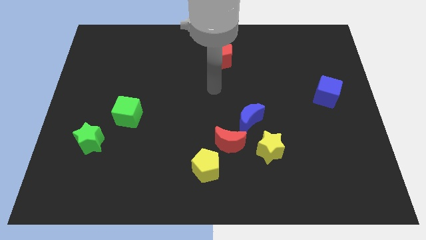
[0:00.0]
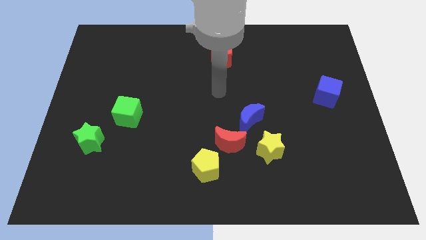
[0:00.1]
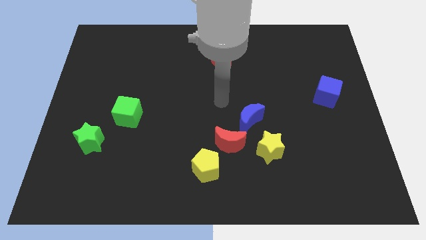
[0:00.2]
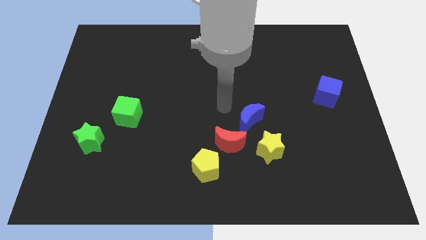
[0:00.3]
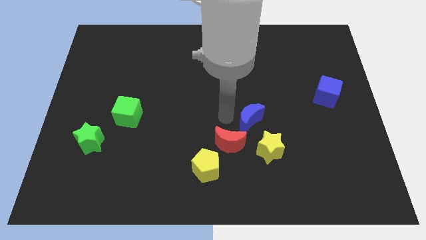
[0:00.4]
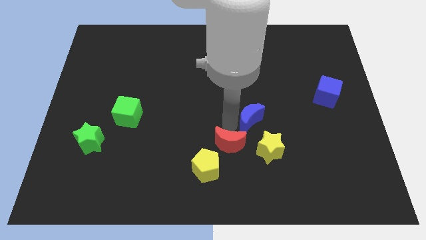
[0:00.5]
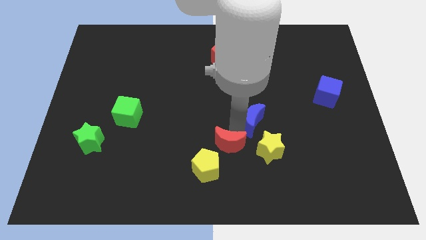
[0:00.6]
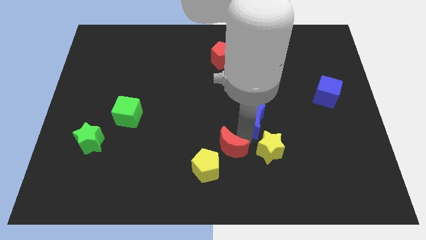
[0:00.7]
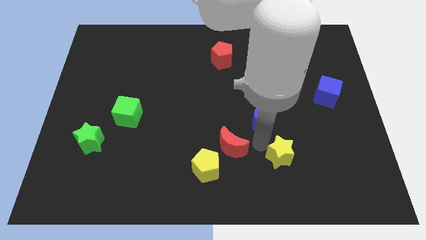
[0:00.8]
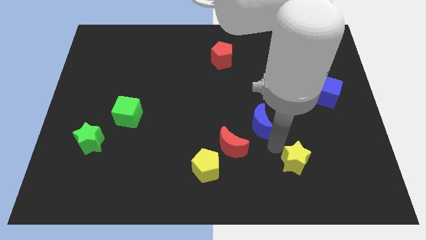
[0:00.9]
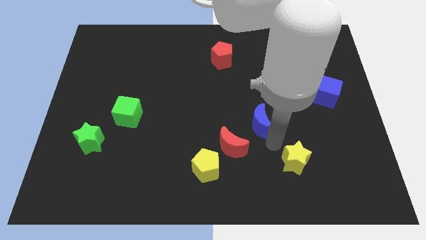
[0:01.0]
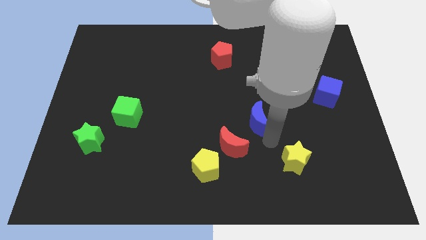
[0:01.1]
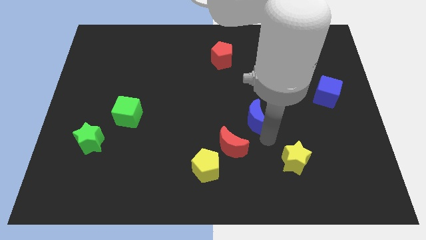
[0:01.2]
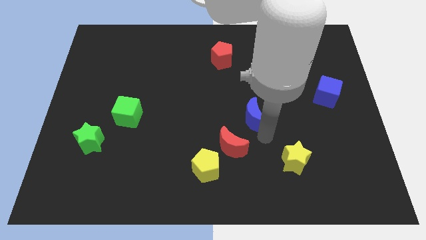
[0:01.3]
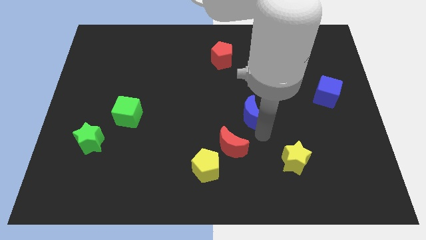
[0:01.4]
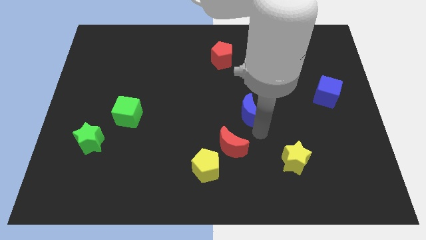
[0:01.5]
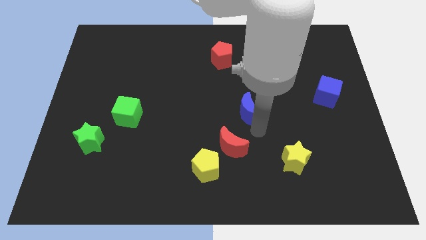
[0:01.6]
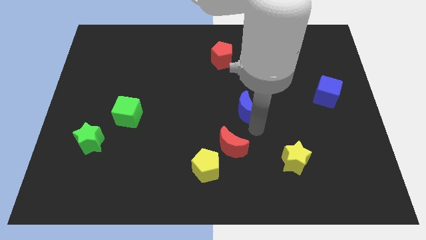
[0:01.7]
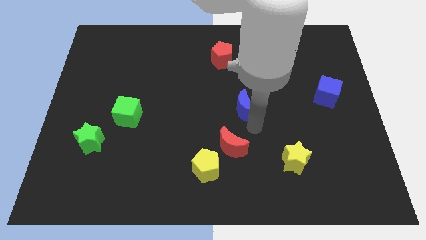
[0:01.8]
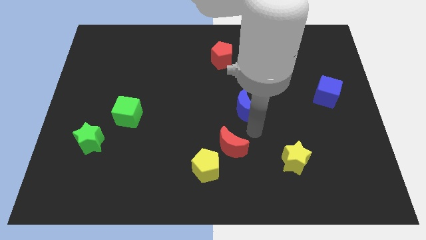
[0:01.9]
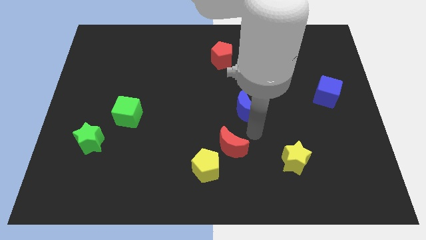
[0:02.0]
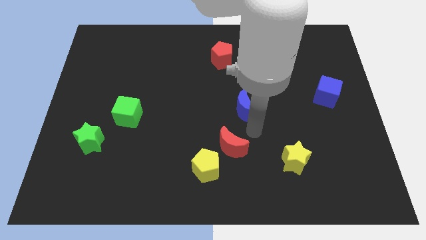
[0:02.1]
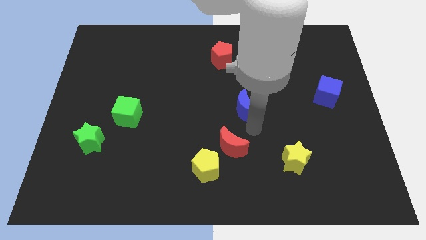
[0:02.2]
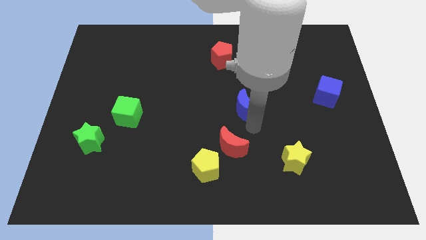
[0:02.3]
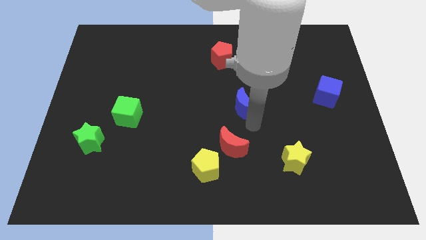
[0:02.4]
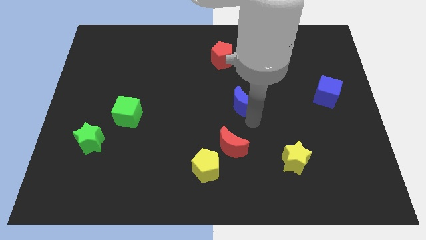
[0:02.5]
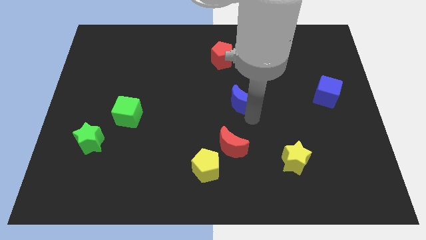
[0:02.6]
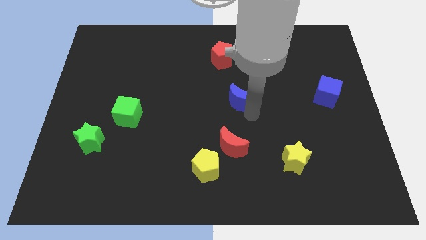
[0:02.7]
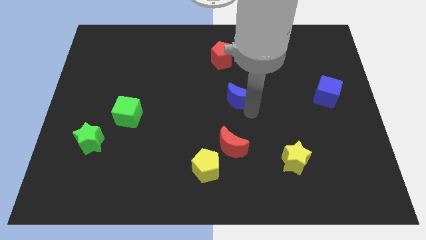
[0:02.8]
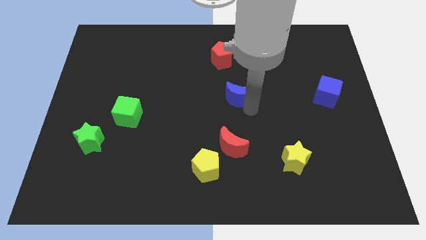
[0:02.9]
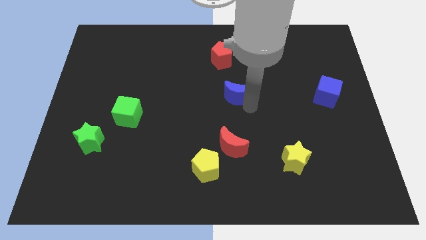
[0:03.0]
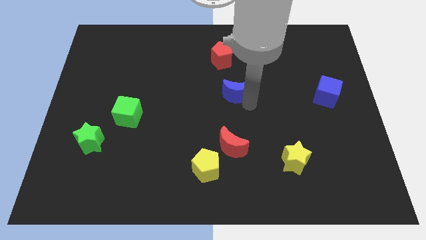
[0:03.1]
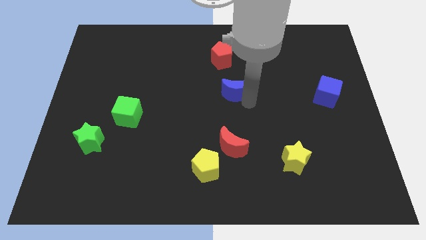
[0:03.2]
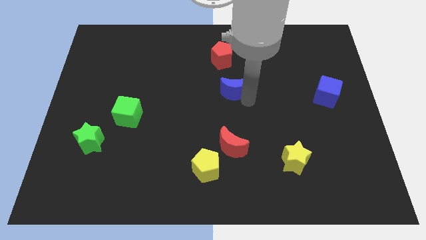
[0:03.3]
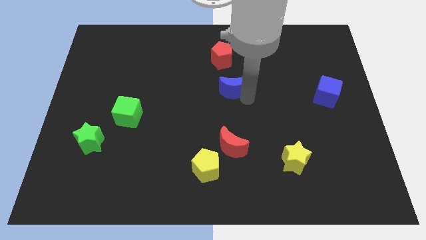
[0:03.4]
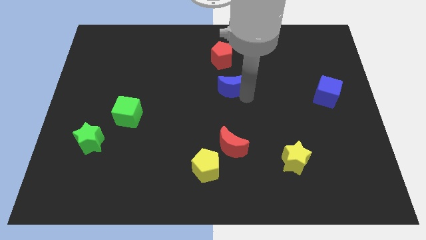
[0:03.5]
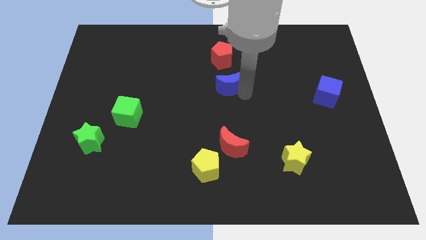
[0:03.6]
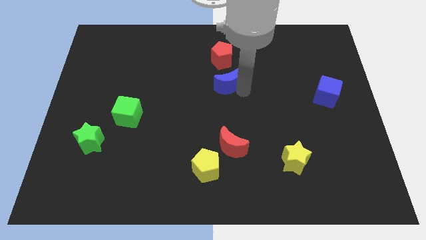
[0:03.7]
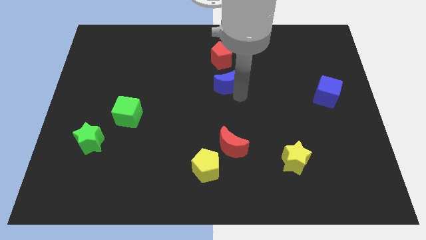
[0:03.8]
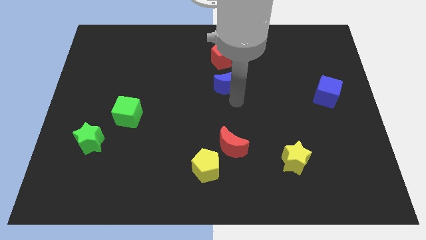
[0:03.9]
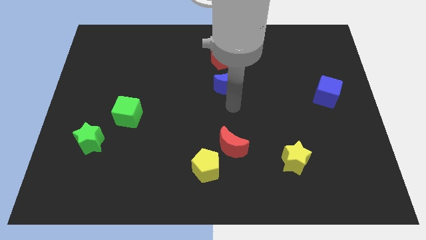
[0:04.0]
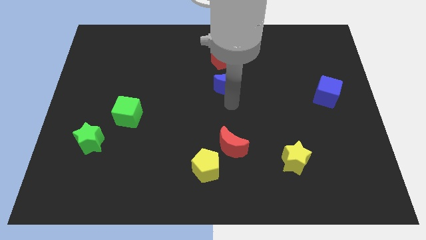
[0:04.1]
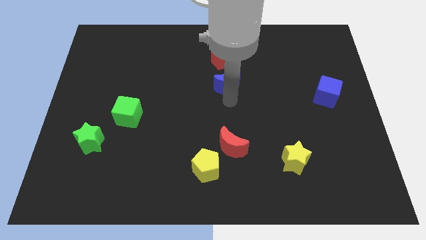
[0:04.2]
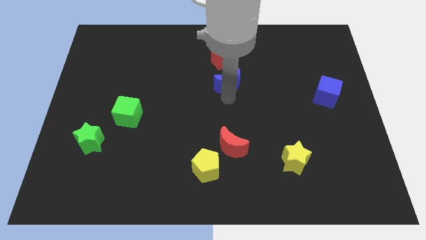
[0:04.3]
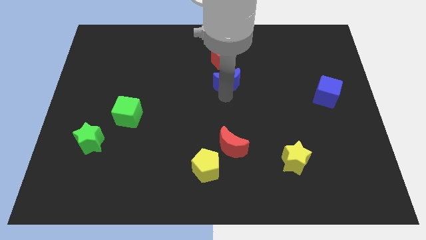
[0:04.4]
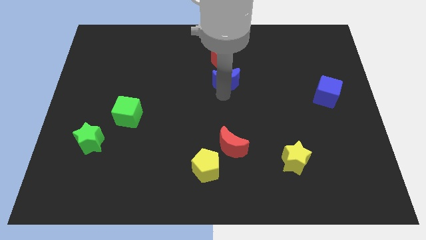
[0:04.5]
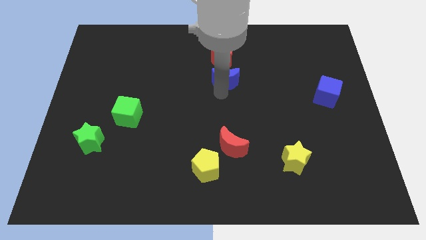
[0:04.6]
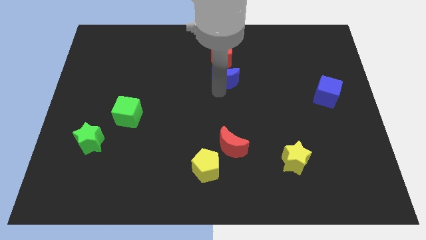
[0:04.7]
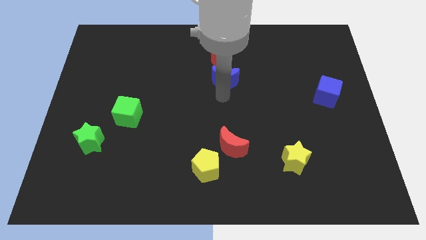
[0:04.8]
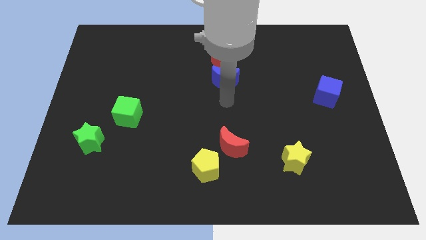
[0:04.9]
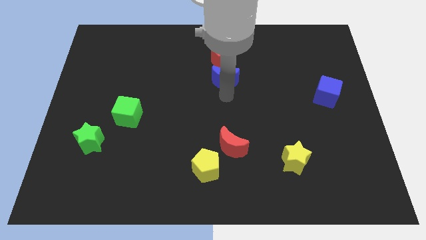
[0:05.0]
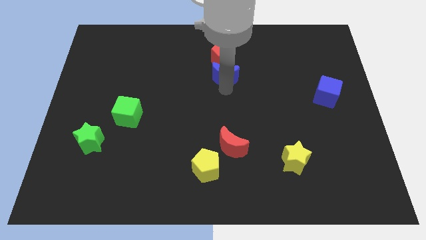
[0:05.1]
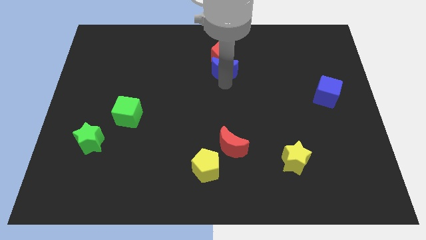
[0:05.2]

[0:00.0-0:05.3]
slide the blue moon close to the red pentagon

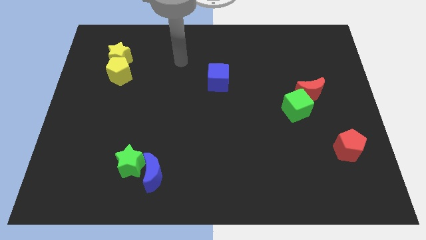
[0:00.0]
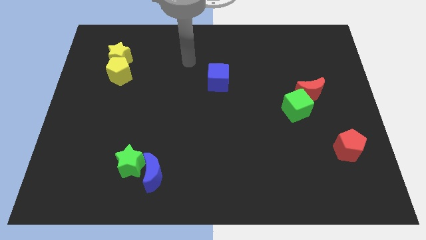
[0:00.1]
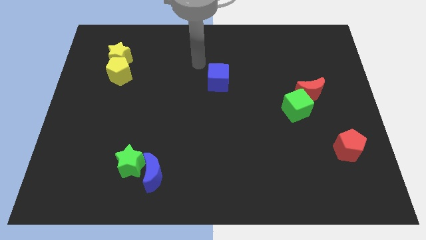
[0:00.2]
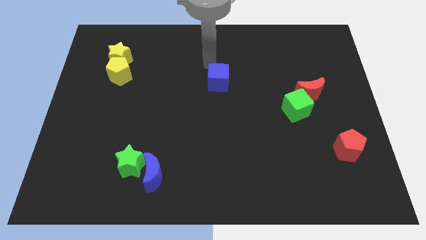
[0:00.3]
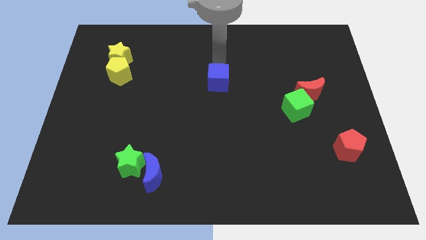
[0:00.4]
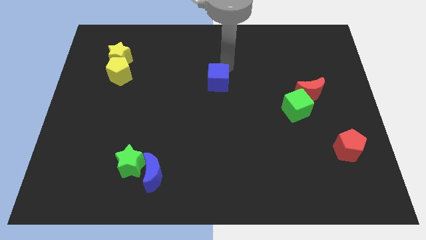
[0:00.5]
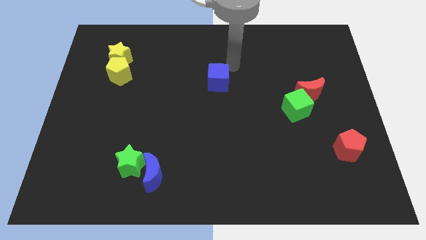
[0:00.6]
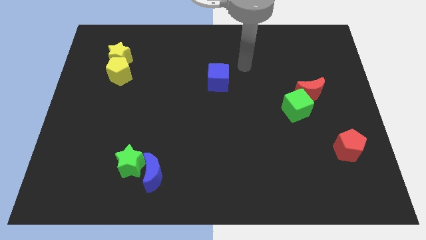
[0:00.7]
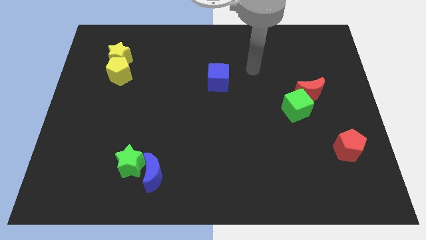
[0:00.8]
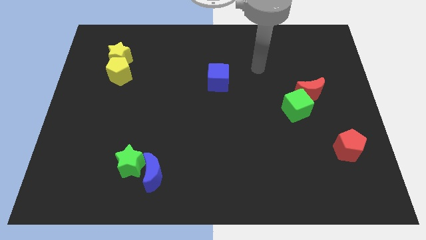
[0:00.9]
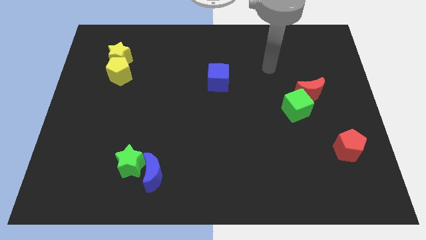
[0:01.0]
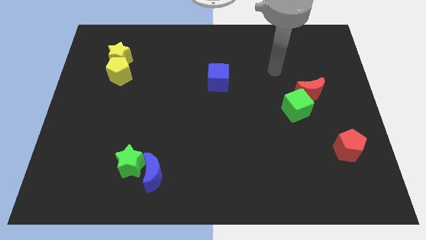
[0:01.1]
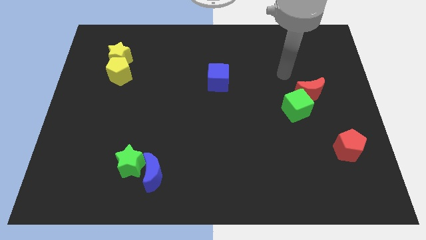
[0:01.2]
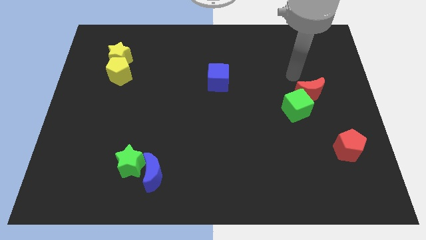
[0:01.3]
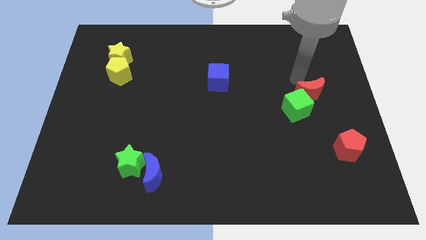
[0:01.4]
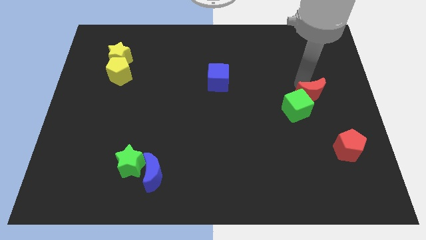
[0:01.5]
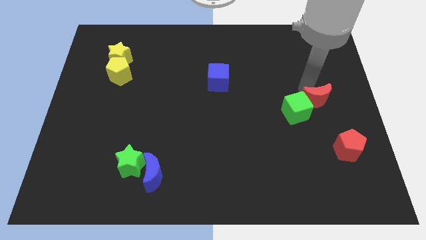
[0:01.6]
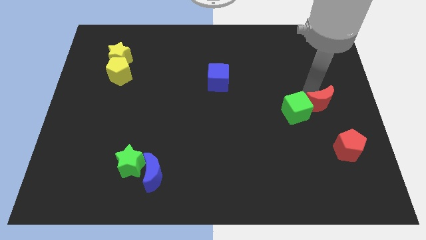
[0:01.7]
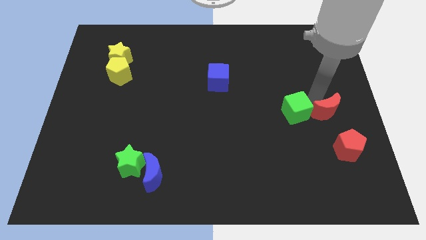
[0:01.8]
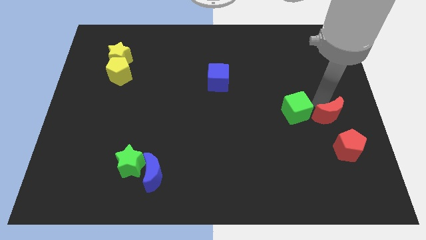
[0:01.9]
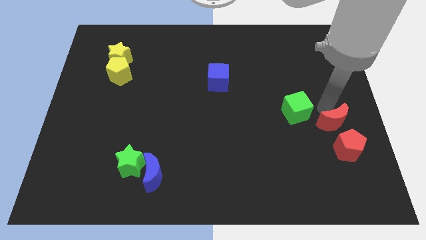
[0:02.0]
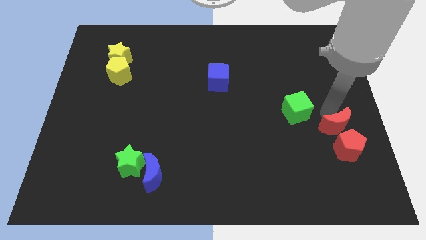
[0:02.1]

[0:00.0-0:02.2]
move the red moon next to the red pentagon

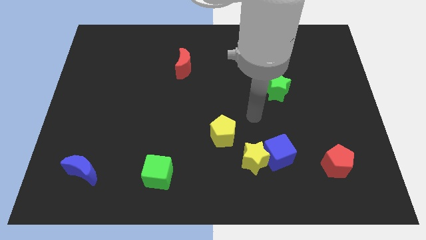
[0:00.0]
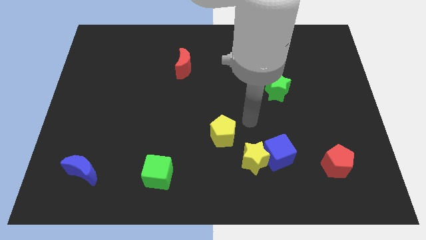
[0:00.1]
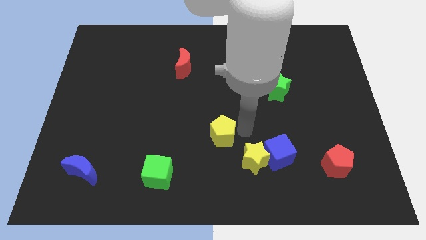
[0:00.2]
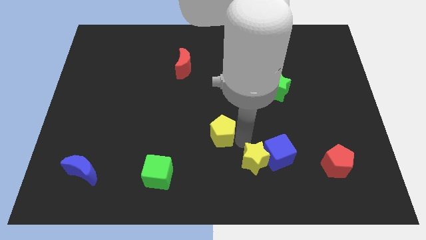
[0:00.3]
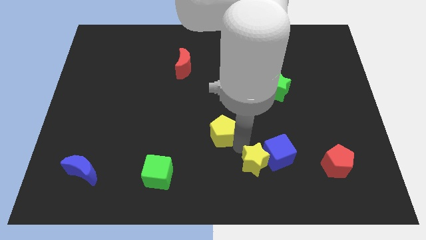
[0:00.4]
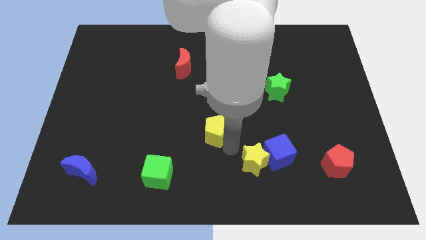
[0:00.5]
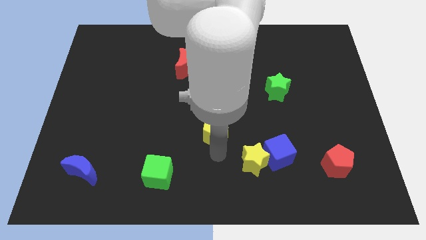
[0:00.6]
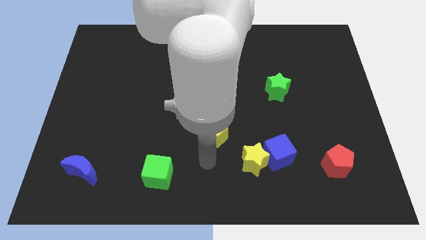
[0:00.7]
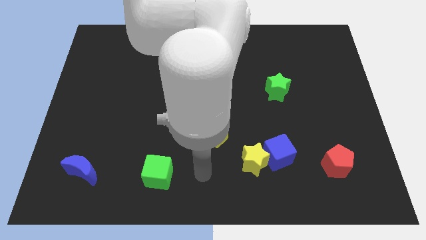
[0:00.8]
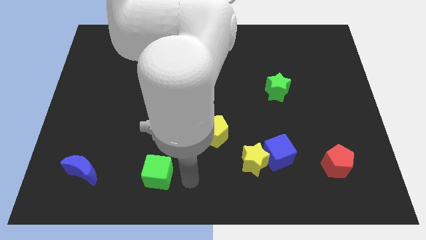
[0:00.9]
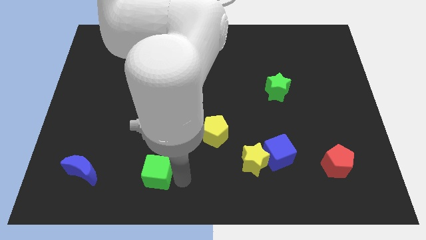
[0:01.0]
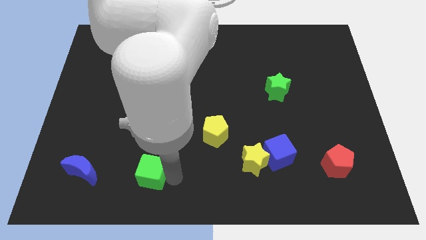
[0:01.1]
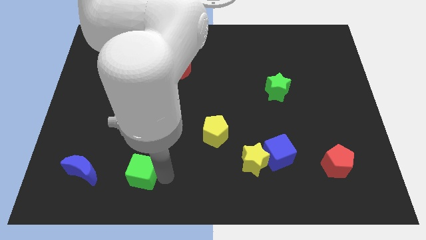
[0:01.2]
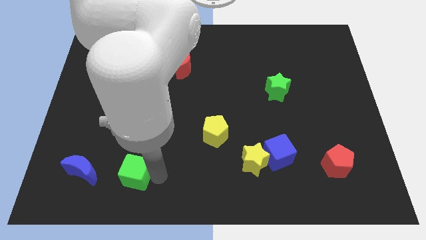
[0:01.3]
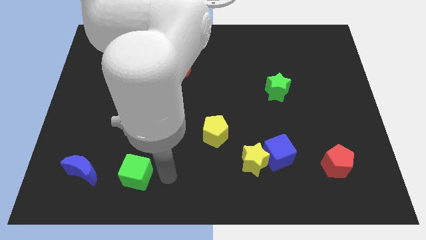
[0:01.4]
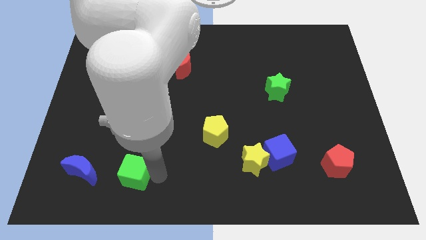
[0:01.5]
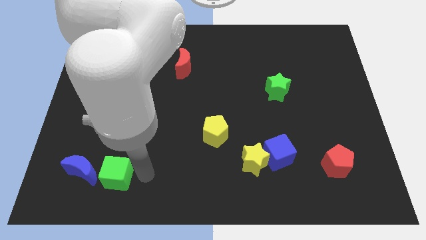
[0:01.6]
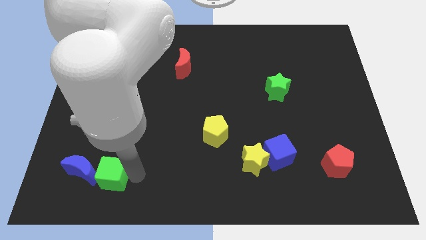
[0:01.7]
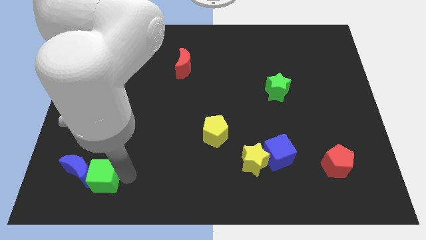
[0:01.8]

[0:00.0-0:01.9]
put the green cube to the blue moon
